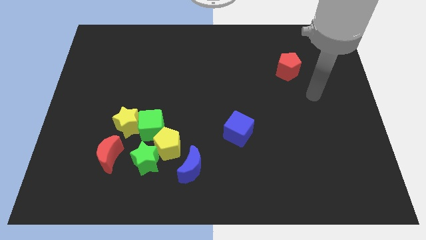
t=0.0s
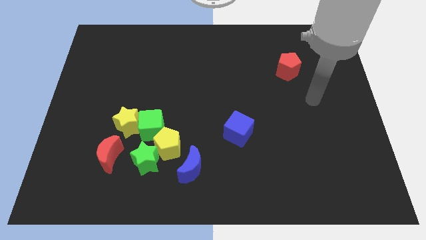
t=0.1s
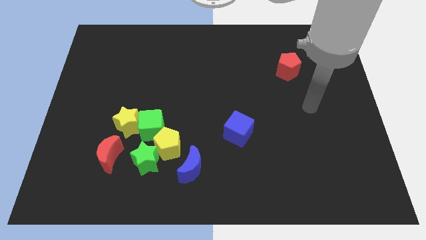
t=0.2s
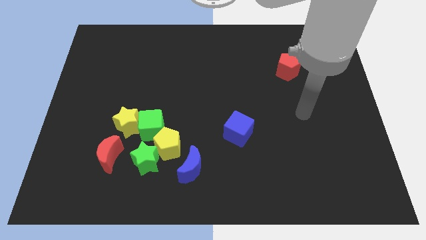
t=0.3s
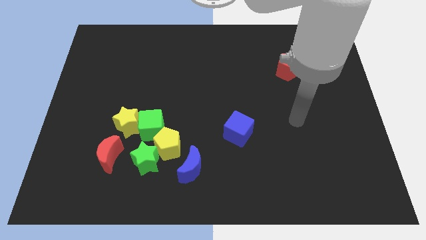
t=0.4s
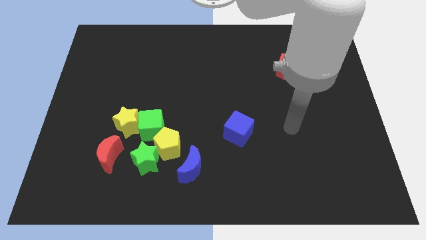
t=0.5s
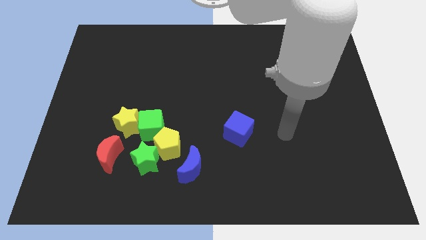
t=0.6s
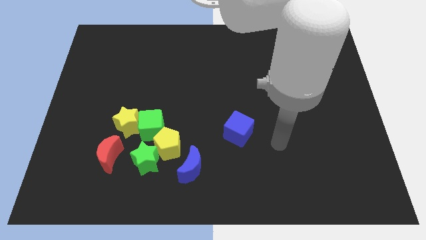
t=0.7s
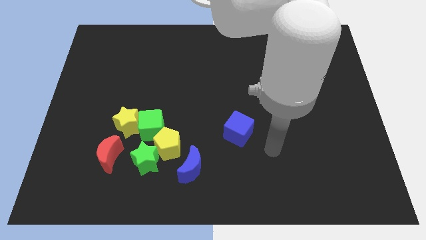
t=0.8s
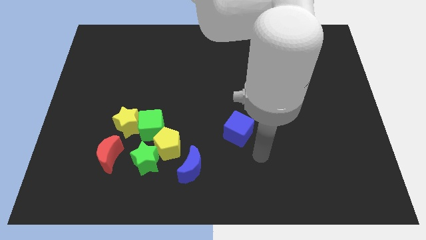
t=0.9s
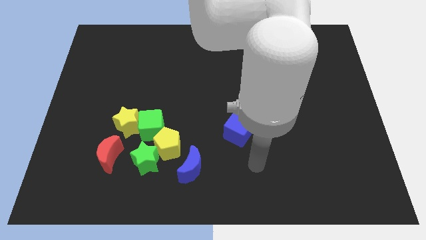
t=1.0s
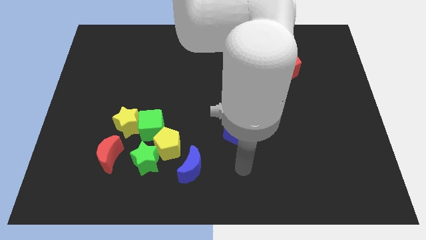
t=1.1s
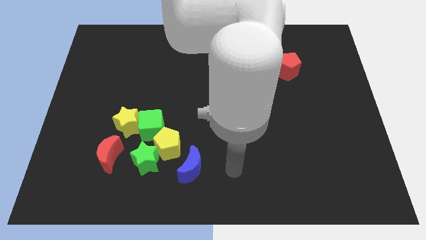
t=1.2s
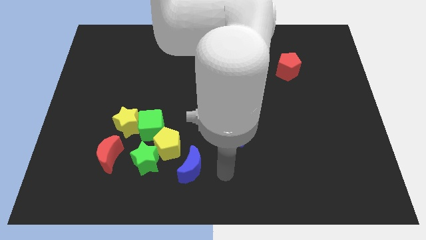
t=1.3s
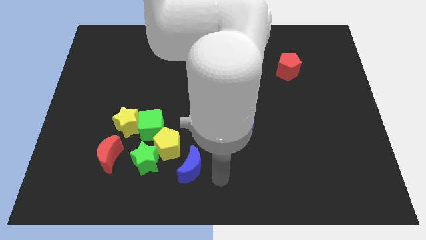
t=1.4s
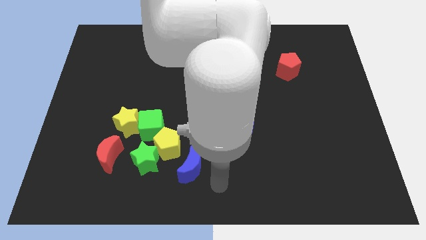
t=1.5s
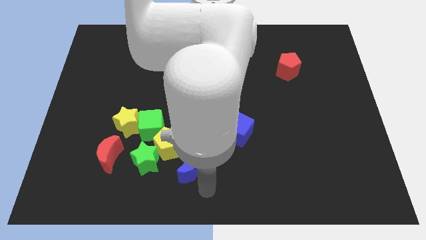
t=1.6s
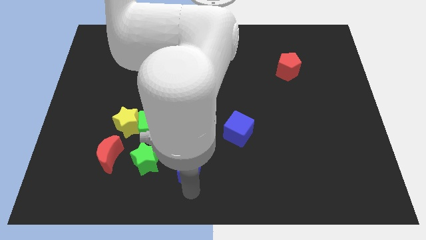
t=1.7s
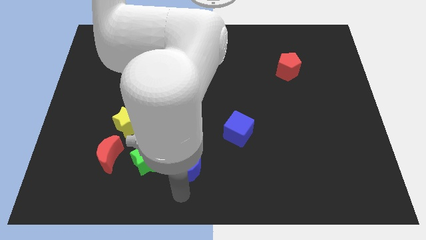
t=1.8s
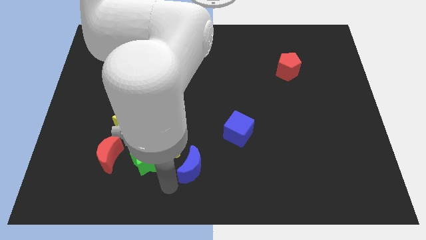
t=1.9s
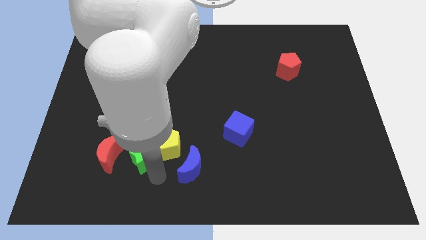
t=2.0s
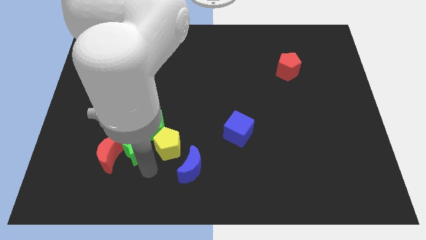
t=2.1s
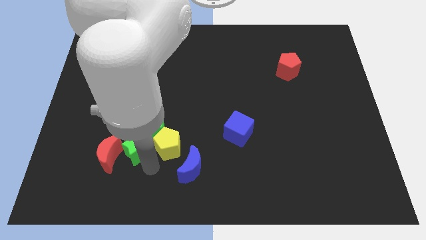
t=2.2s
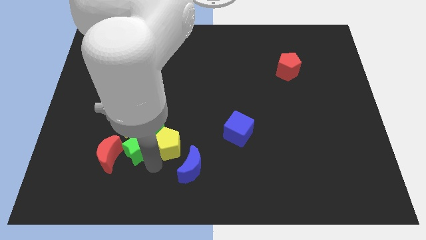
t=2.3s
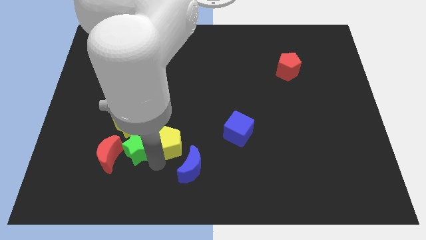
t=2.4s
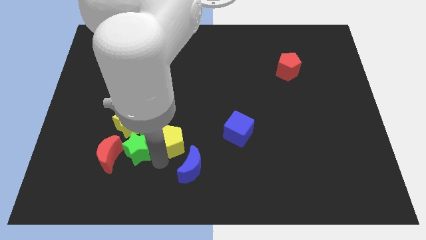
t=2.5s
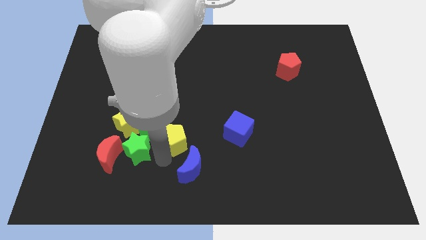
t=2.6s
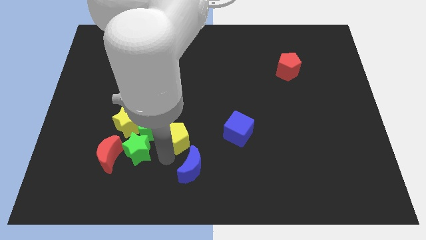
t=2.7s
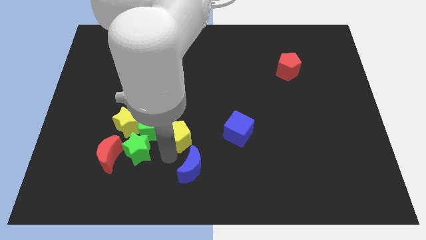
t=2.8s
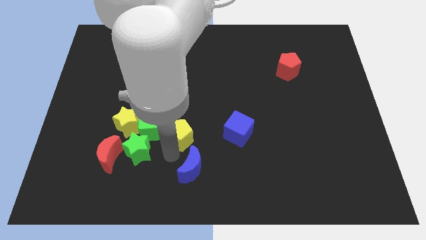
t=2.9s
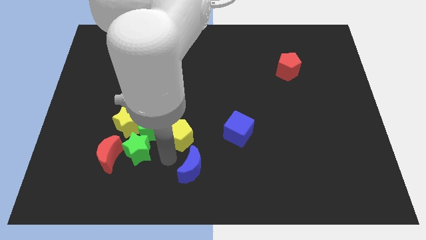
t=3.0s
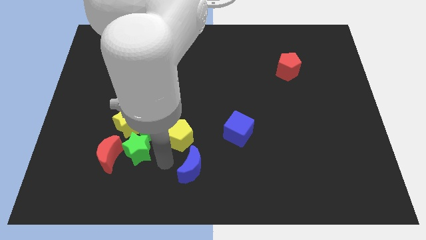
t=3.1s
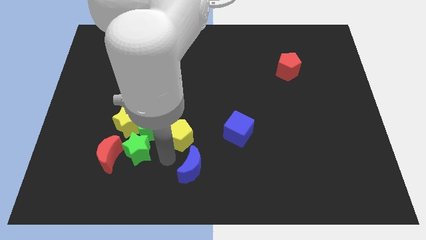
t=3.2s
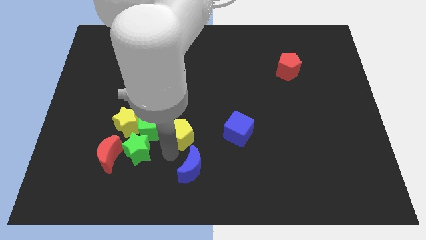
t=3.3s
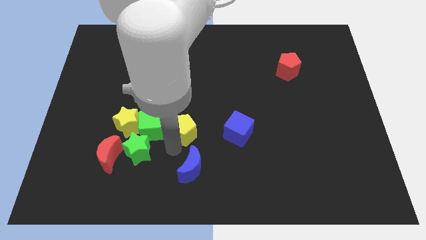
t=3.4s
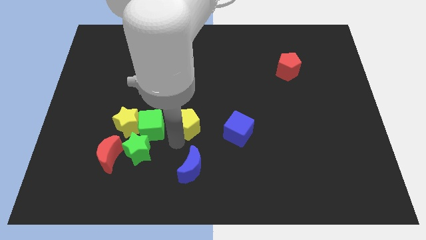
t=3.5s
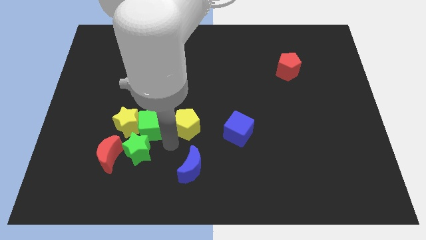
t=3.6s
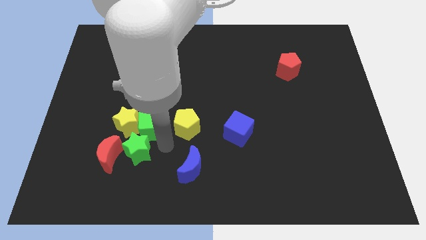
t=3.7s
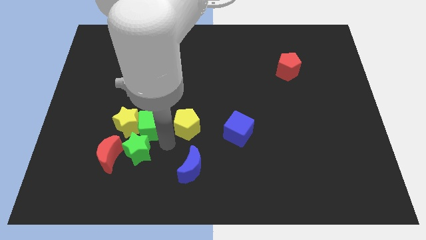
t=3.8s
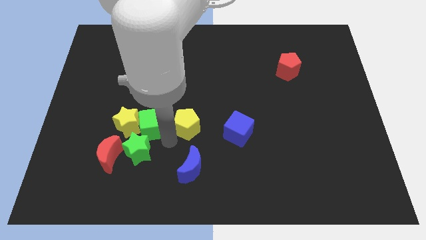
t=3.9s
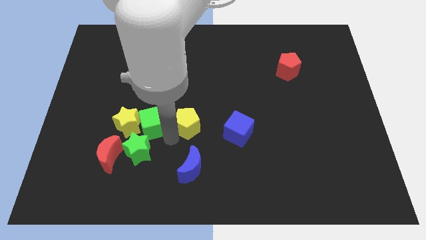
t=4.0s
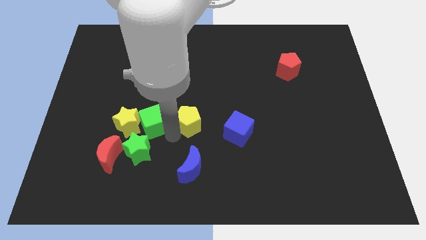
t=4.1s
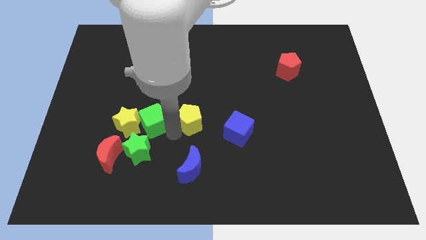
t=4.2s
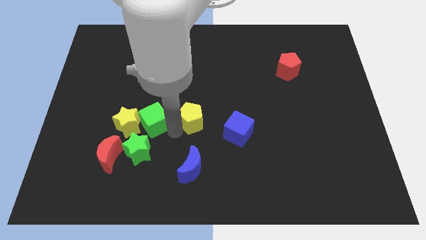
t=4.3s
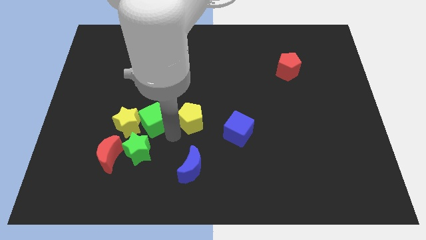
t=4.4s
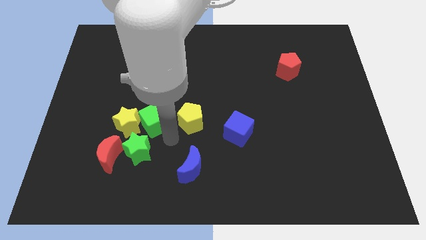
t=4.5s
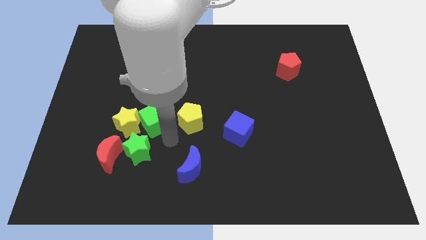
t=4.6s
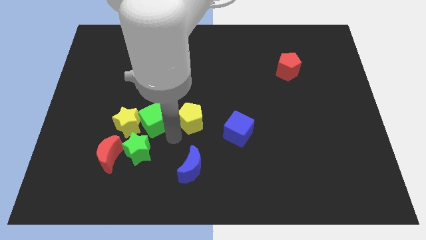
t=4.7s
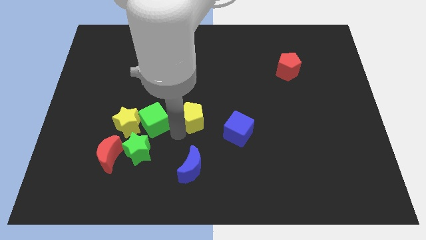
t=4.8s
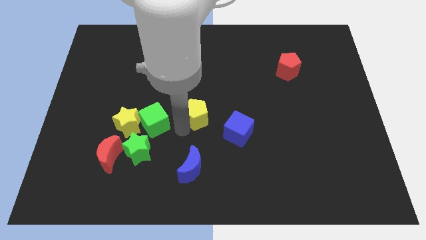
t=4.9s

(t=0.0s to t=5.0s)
pull the yellow pentagon apart from the green star, green cube, and blue moon

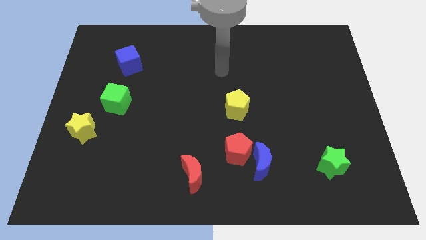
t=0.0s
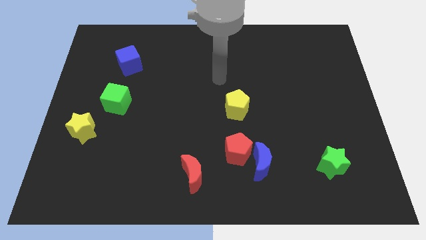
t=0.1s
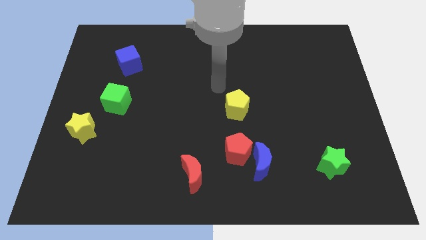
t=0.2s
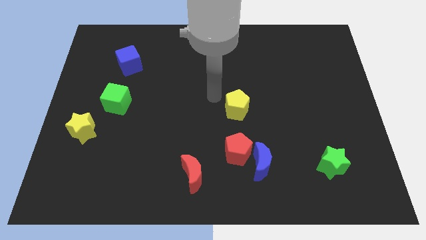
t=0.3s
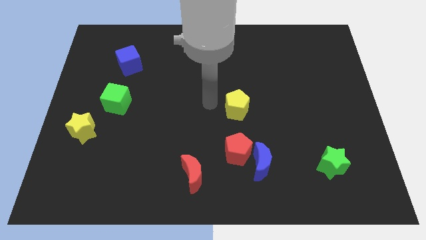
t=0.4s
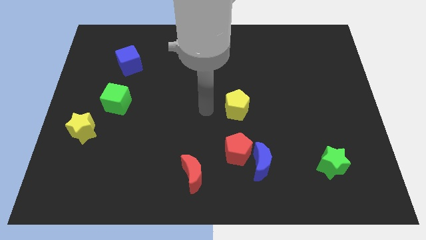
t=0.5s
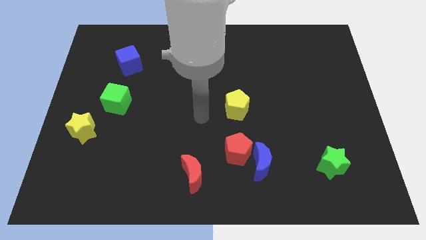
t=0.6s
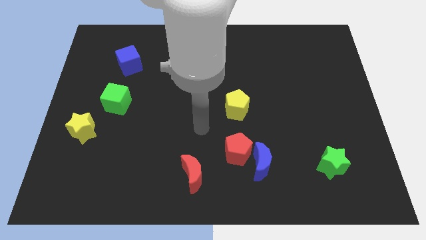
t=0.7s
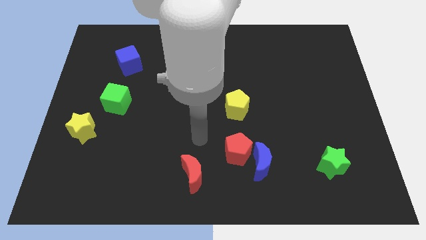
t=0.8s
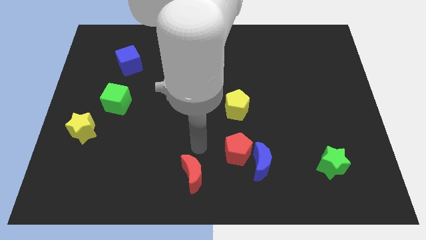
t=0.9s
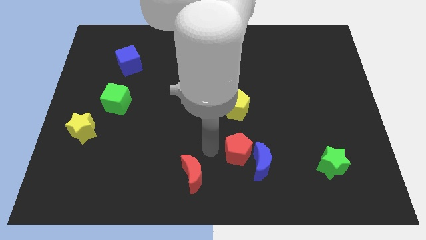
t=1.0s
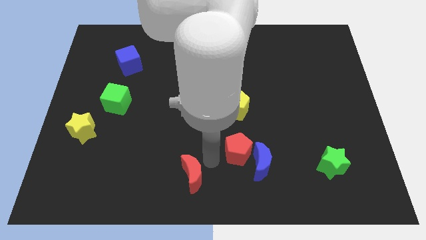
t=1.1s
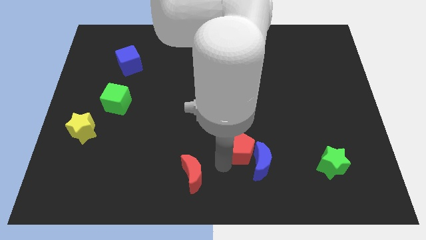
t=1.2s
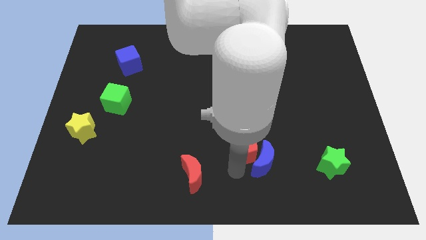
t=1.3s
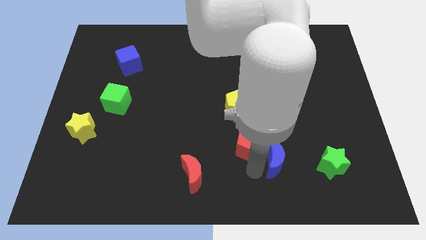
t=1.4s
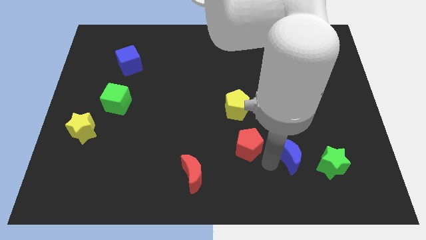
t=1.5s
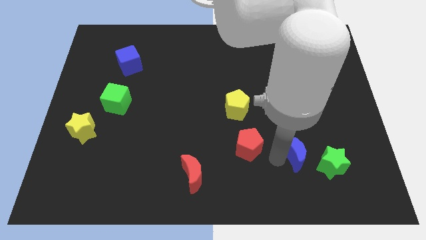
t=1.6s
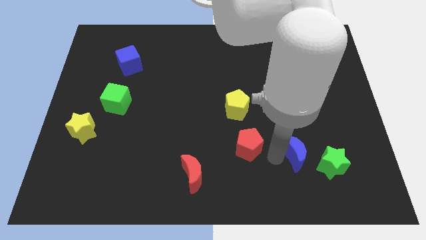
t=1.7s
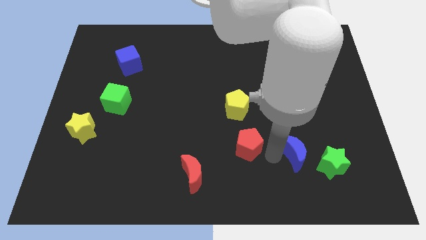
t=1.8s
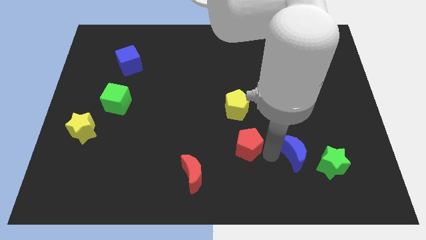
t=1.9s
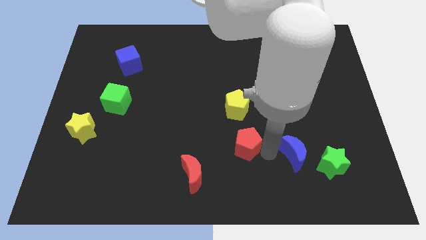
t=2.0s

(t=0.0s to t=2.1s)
separate the red pentagon from the blue moon

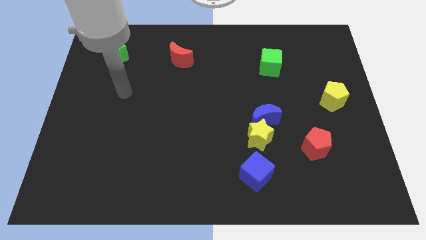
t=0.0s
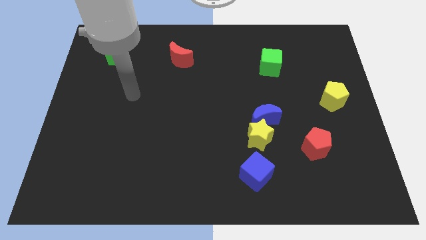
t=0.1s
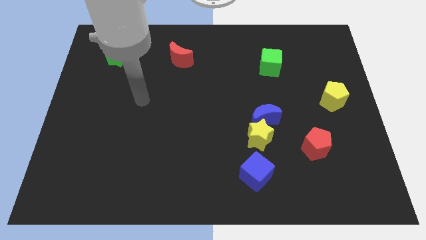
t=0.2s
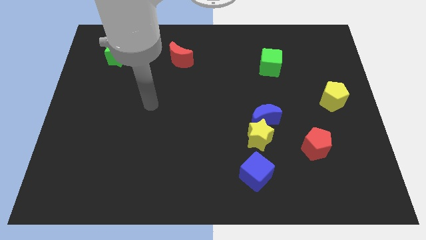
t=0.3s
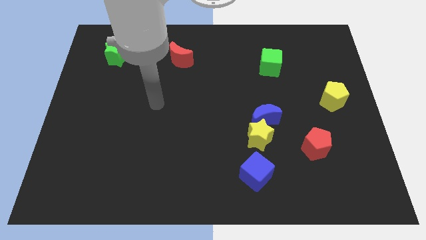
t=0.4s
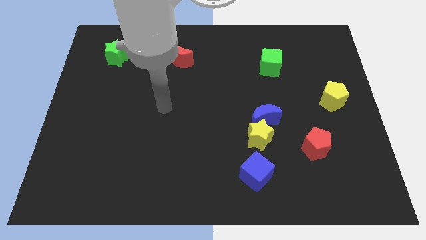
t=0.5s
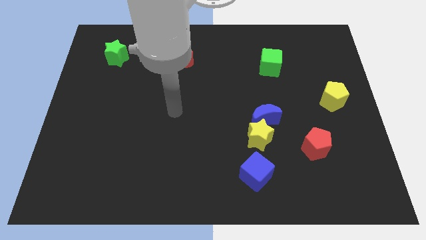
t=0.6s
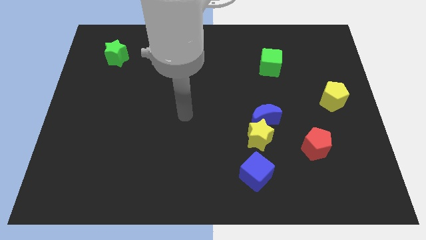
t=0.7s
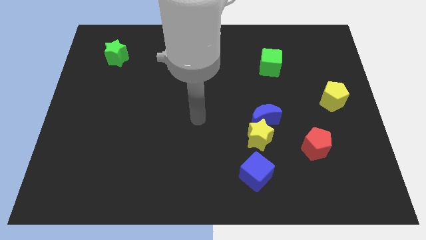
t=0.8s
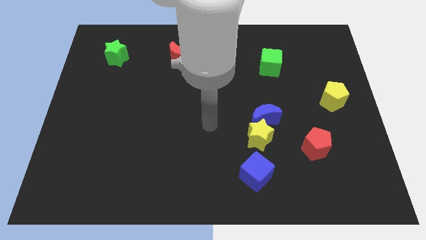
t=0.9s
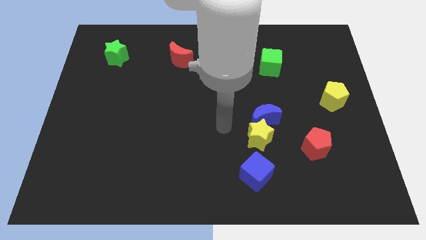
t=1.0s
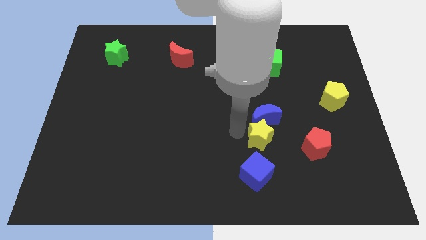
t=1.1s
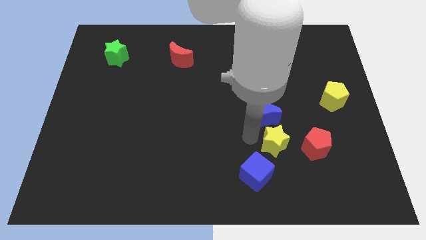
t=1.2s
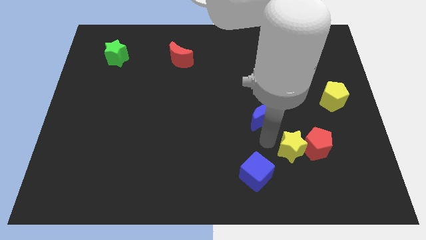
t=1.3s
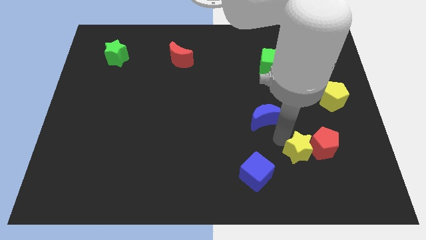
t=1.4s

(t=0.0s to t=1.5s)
move the blue moon away from the yellow star

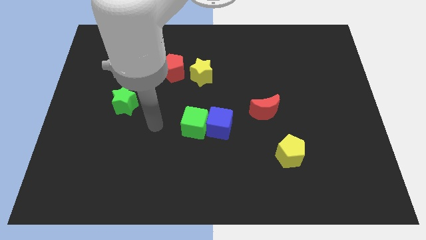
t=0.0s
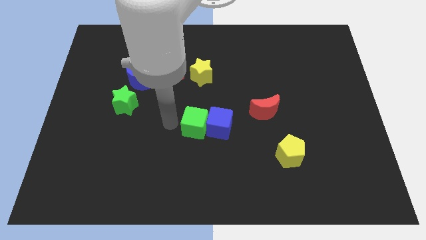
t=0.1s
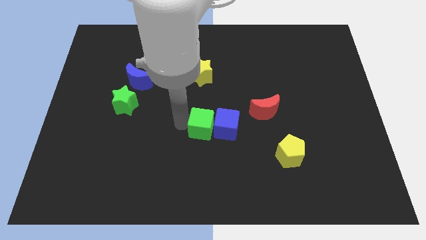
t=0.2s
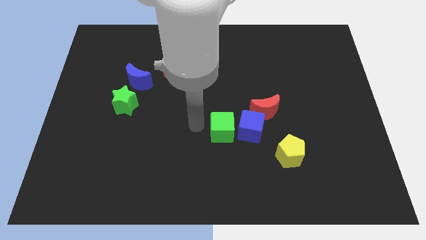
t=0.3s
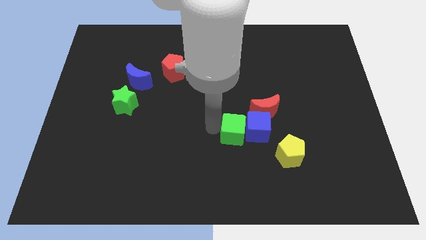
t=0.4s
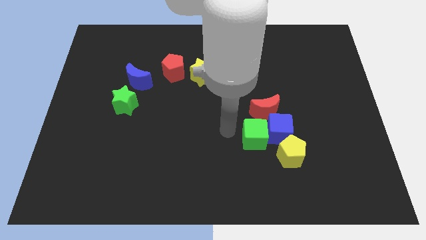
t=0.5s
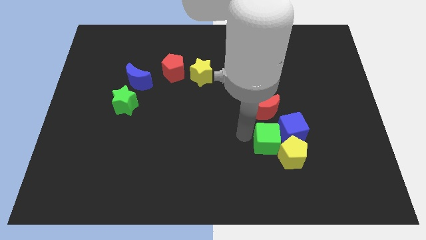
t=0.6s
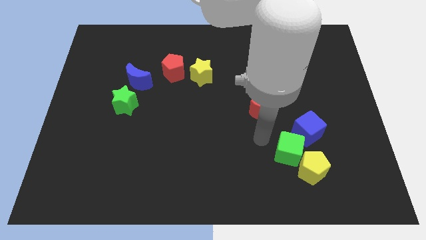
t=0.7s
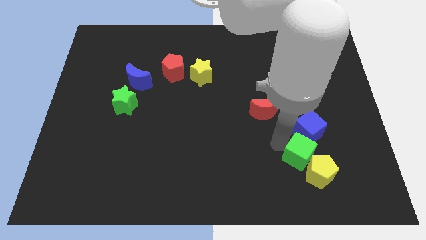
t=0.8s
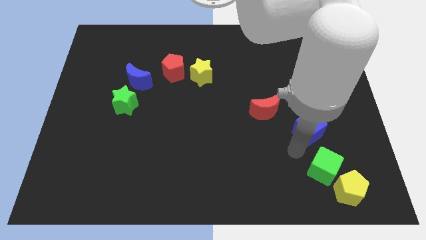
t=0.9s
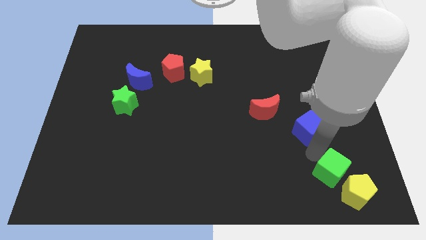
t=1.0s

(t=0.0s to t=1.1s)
pull the blue cube apart from the green cube
